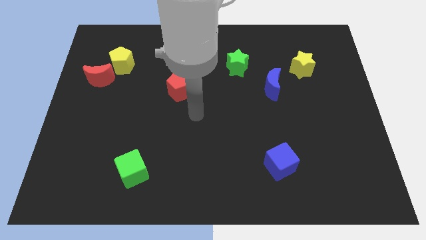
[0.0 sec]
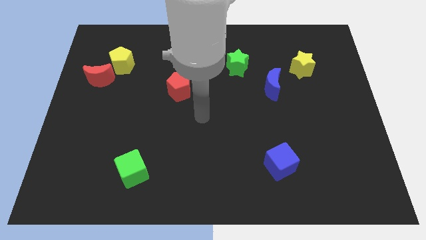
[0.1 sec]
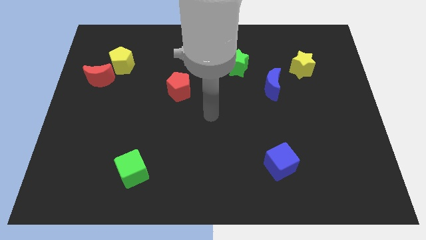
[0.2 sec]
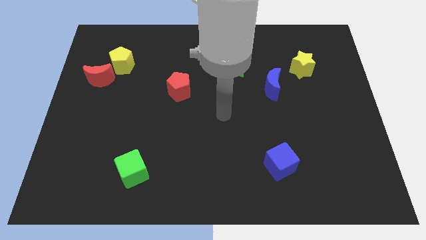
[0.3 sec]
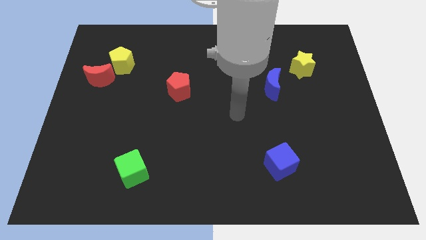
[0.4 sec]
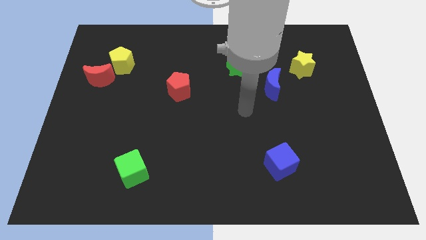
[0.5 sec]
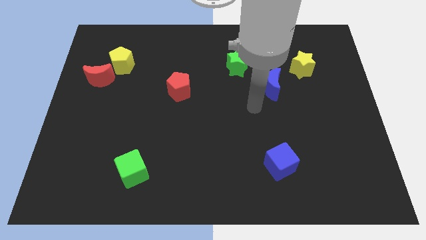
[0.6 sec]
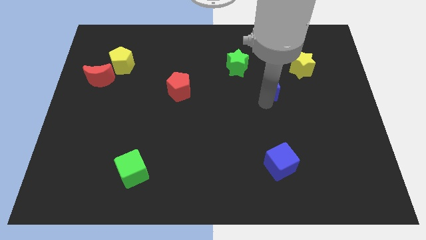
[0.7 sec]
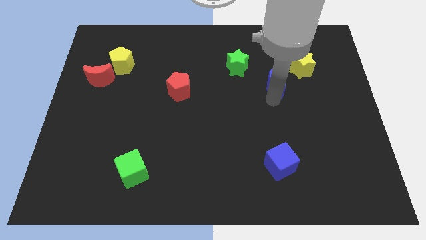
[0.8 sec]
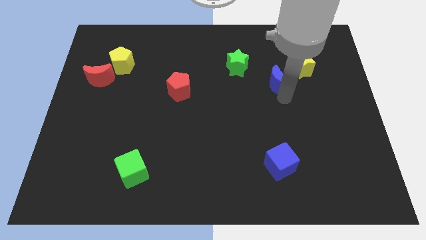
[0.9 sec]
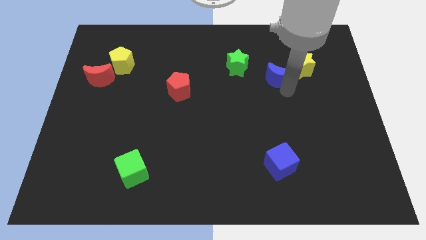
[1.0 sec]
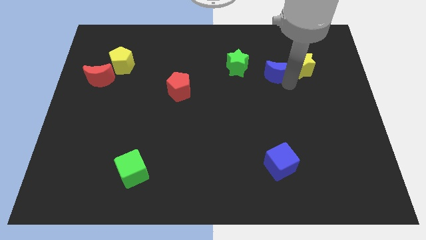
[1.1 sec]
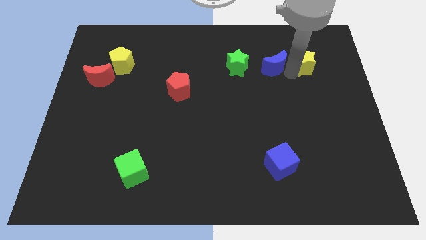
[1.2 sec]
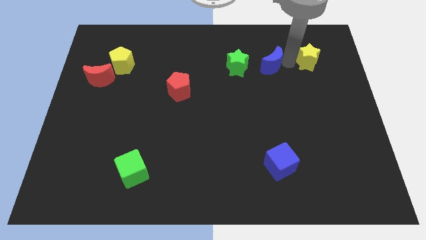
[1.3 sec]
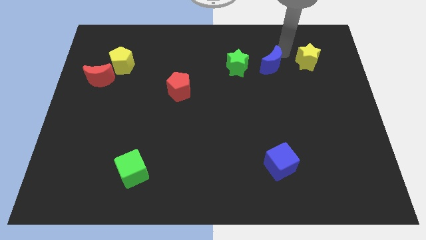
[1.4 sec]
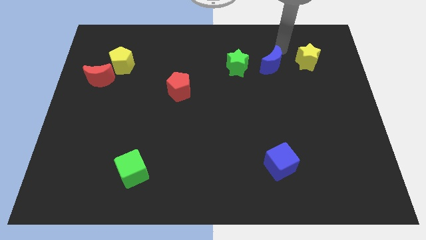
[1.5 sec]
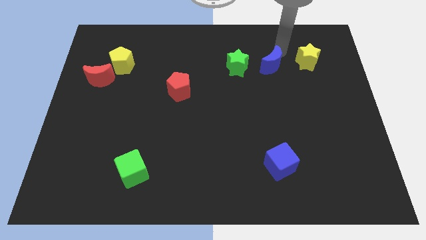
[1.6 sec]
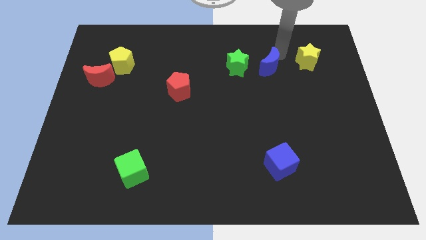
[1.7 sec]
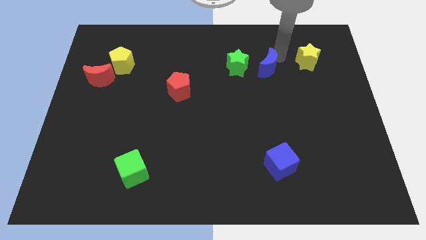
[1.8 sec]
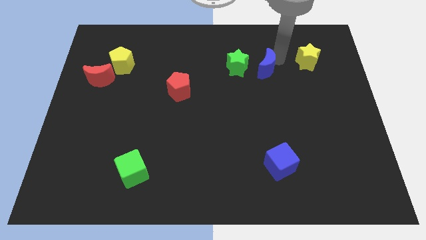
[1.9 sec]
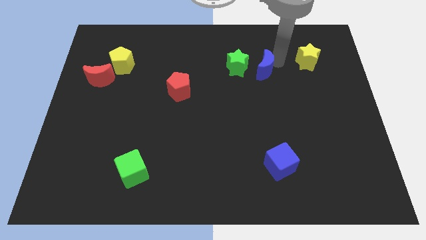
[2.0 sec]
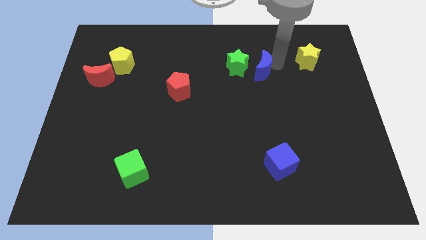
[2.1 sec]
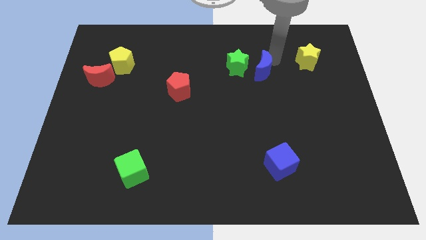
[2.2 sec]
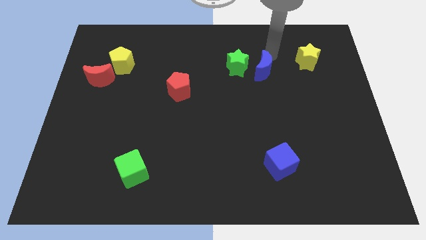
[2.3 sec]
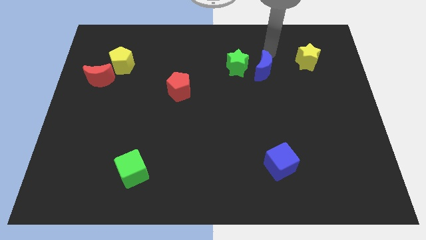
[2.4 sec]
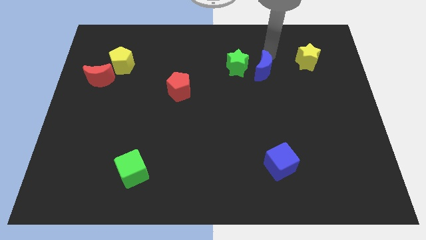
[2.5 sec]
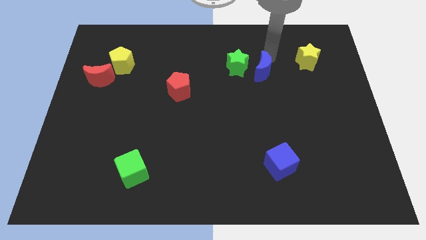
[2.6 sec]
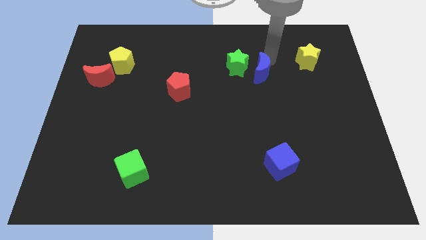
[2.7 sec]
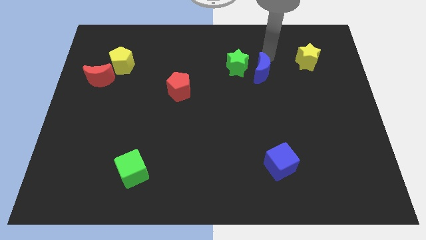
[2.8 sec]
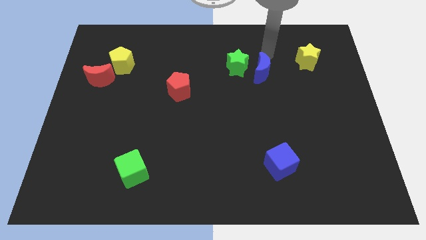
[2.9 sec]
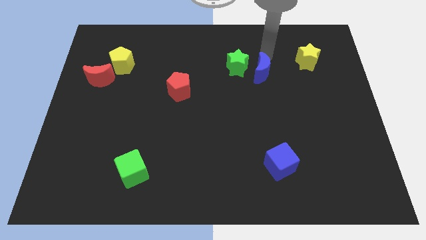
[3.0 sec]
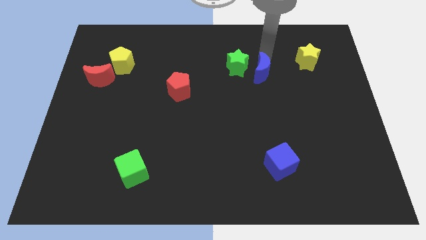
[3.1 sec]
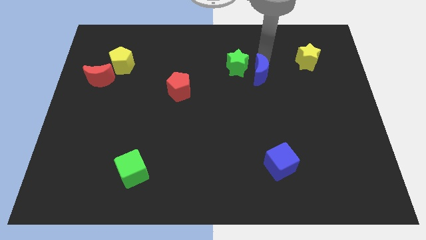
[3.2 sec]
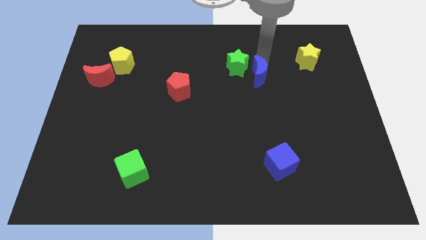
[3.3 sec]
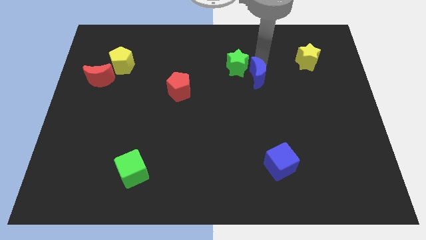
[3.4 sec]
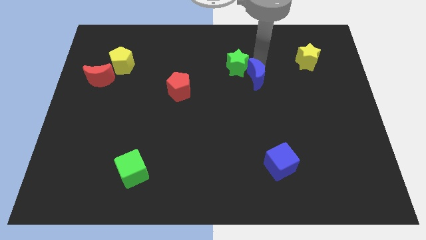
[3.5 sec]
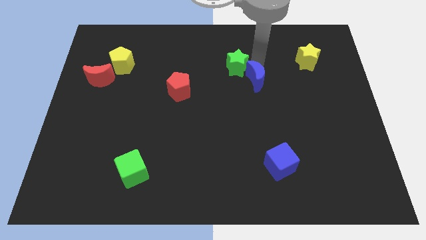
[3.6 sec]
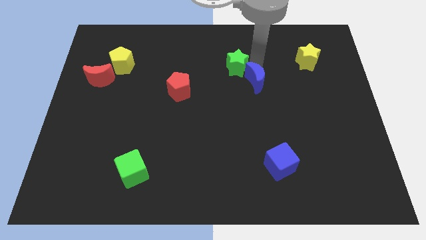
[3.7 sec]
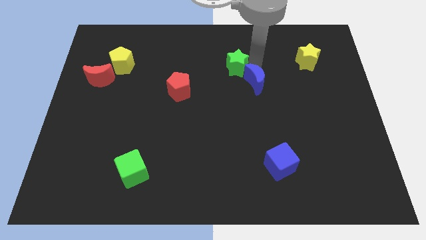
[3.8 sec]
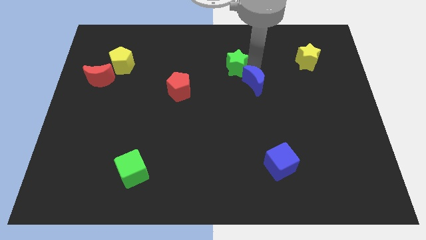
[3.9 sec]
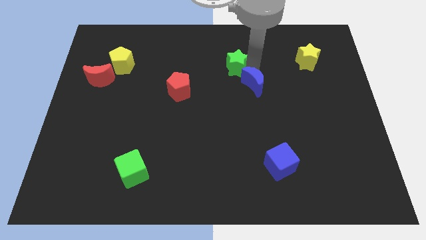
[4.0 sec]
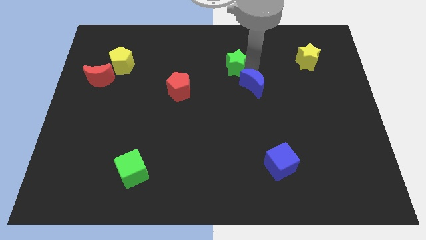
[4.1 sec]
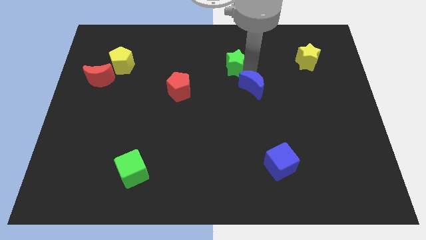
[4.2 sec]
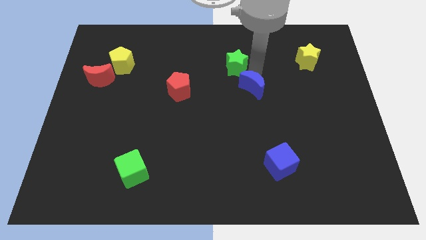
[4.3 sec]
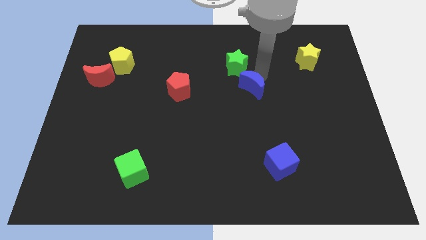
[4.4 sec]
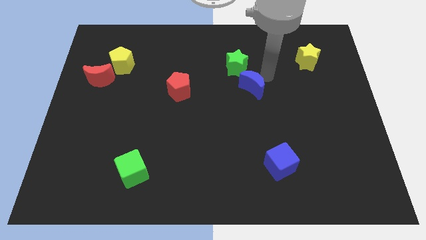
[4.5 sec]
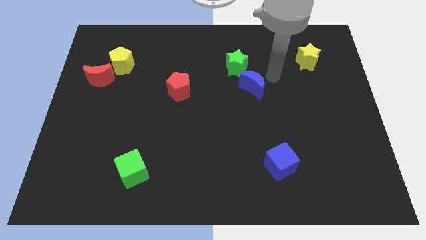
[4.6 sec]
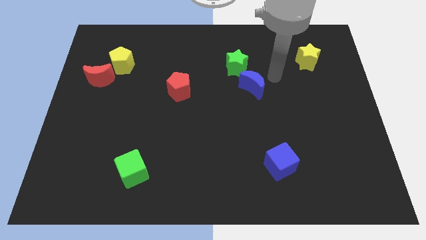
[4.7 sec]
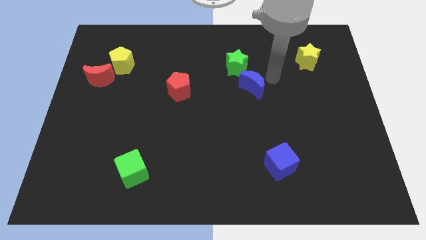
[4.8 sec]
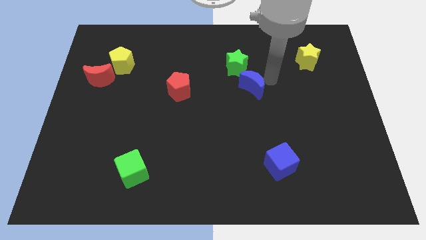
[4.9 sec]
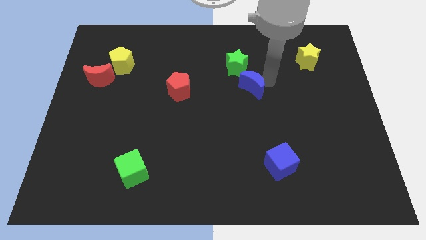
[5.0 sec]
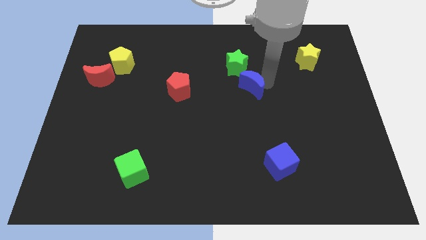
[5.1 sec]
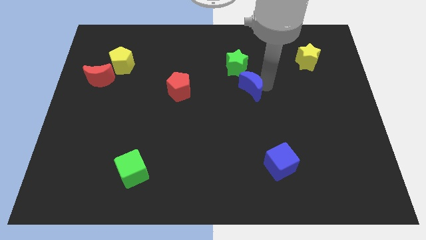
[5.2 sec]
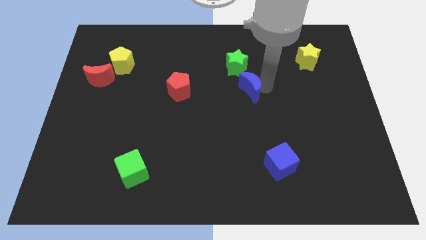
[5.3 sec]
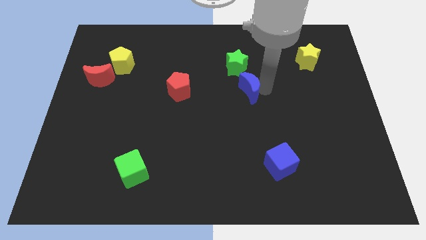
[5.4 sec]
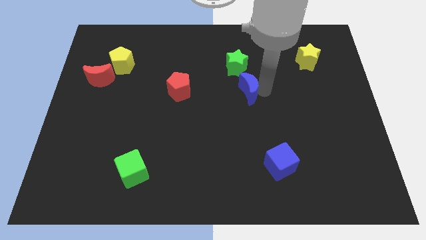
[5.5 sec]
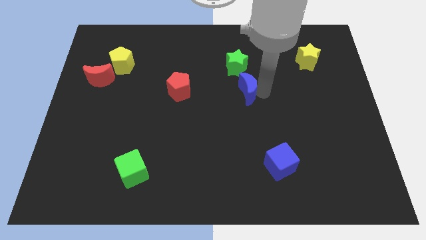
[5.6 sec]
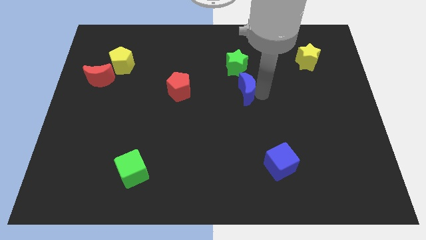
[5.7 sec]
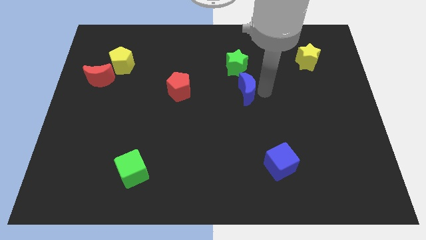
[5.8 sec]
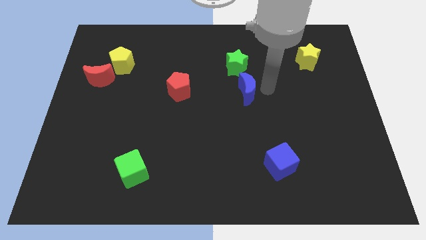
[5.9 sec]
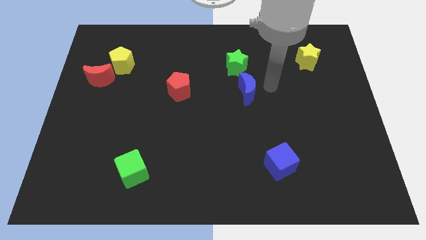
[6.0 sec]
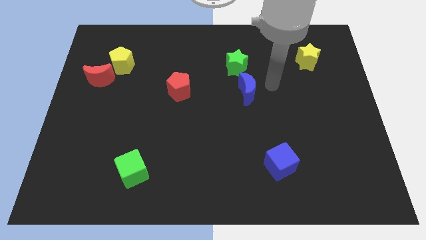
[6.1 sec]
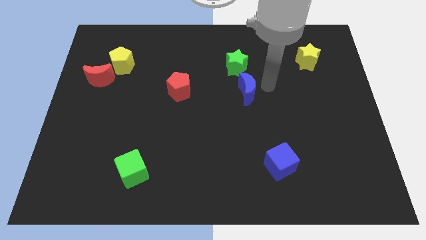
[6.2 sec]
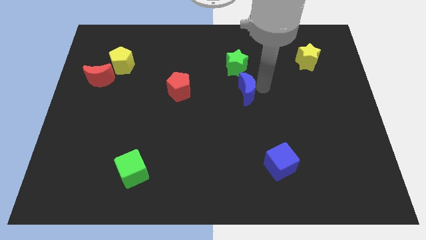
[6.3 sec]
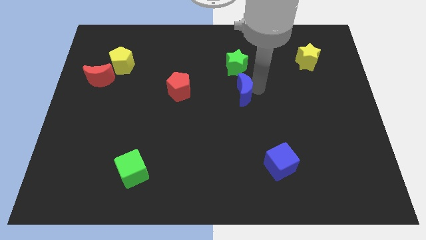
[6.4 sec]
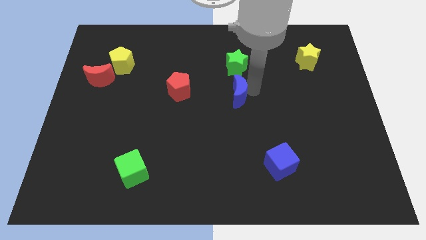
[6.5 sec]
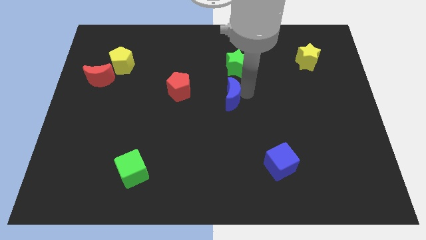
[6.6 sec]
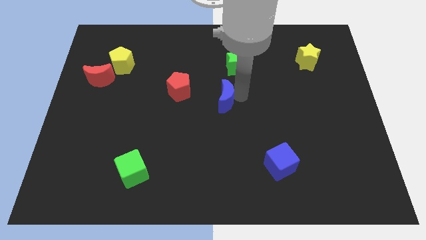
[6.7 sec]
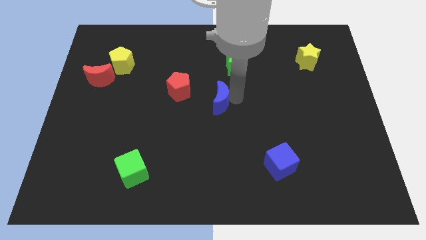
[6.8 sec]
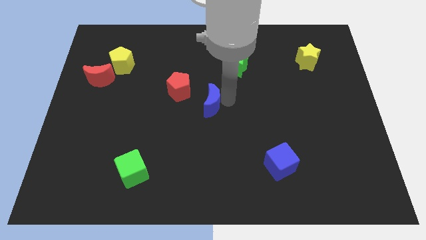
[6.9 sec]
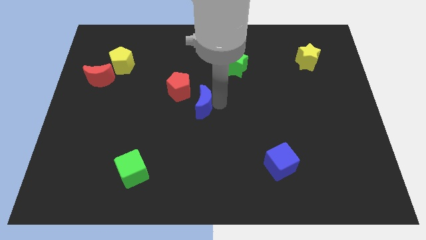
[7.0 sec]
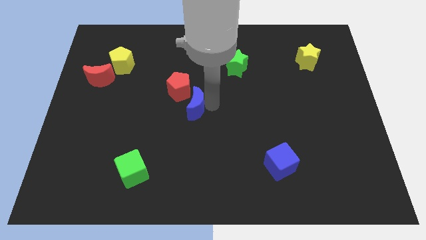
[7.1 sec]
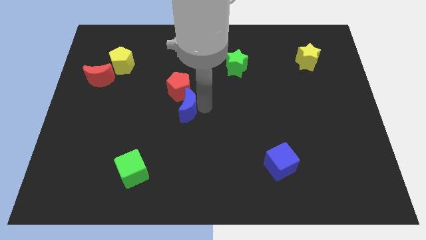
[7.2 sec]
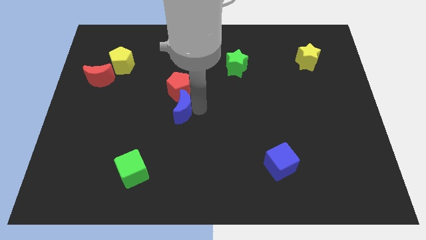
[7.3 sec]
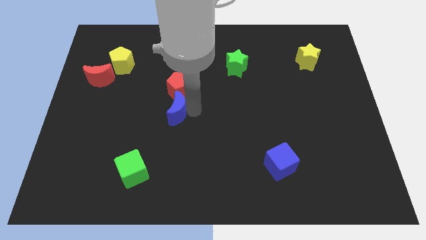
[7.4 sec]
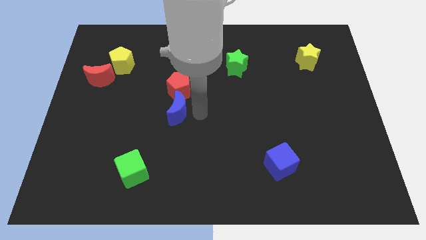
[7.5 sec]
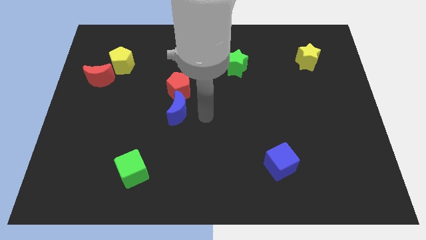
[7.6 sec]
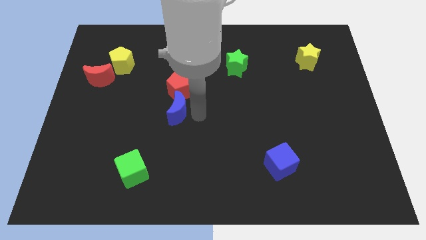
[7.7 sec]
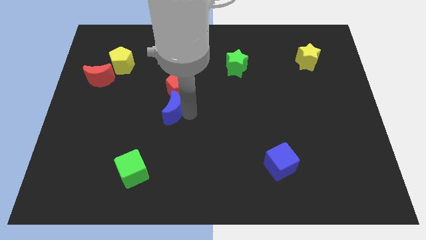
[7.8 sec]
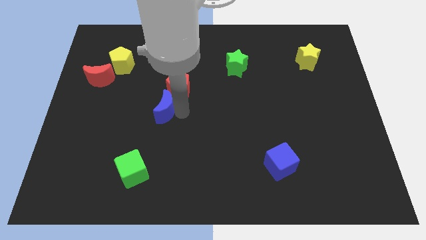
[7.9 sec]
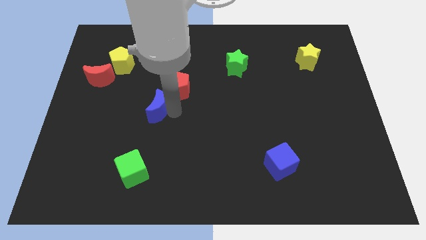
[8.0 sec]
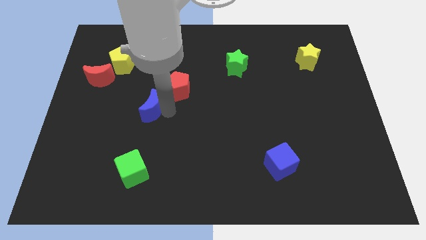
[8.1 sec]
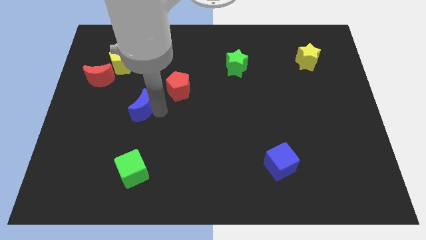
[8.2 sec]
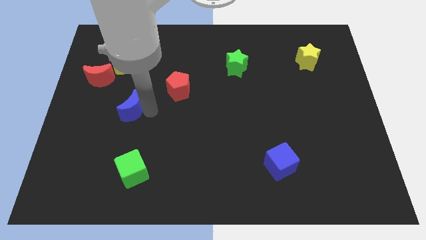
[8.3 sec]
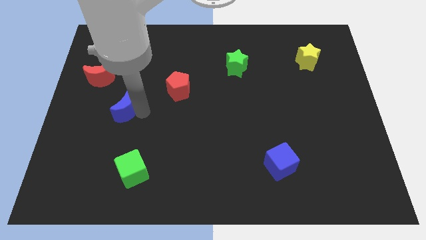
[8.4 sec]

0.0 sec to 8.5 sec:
put the blue moon to the bottom of the yellow pentagon
